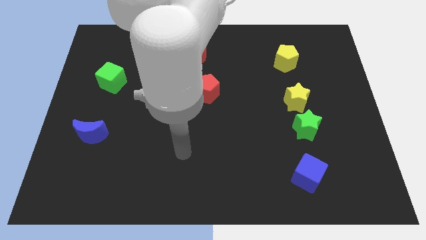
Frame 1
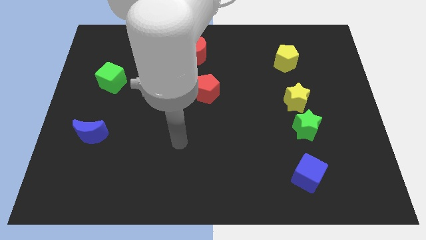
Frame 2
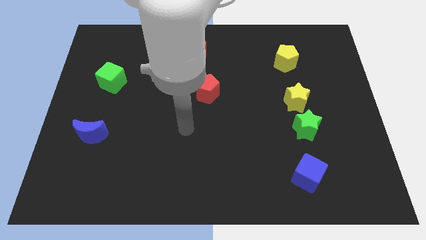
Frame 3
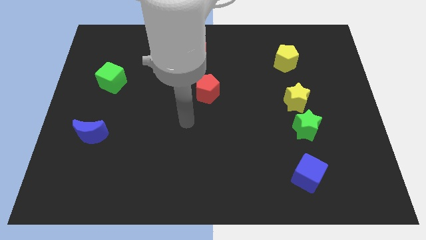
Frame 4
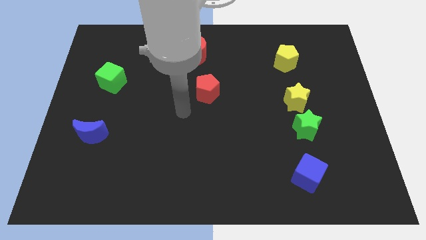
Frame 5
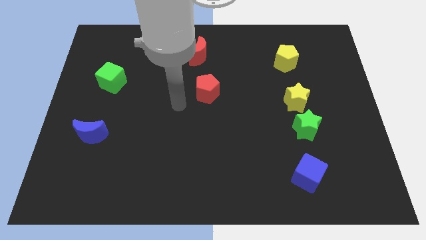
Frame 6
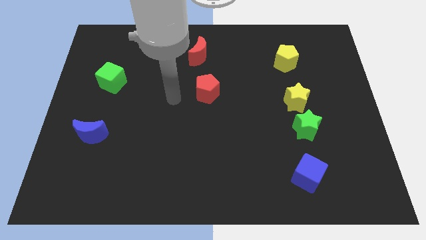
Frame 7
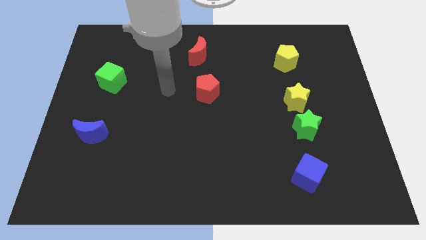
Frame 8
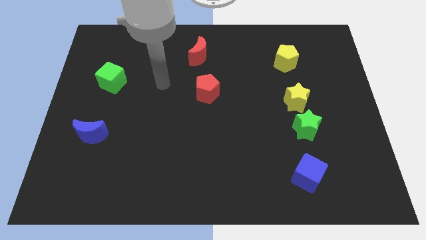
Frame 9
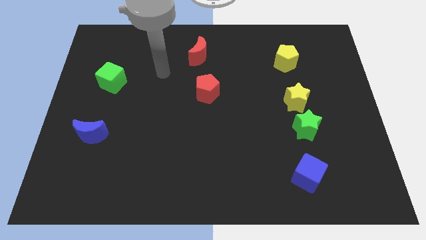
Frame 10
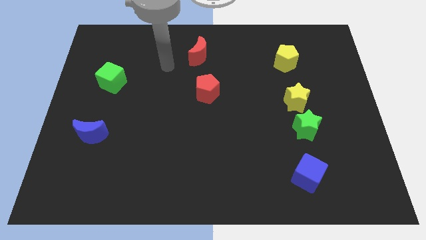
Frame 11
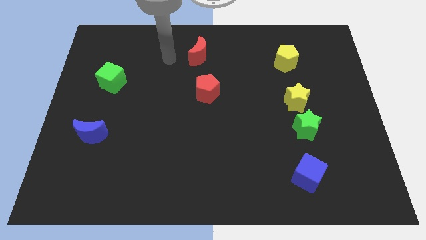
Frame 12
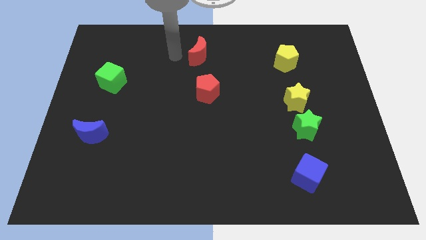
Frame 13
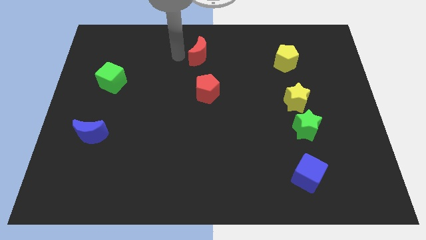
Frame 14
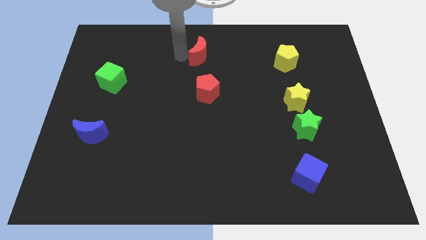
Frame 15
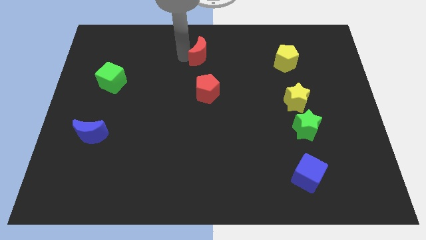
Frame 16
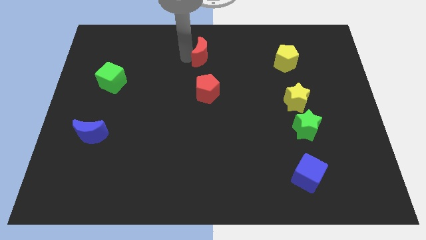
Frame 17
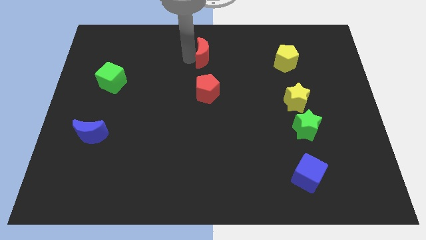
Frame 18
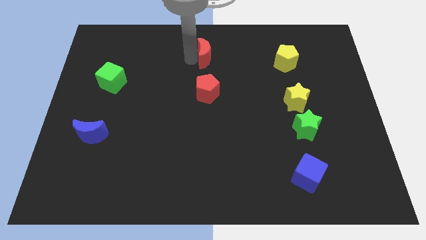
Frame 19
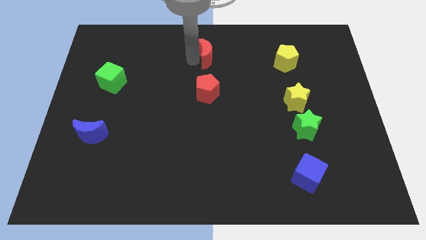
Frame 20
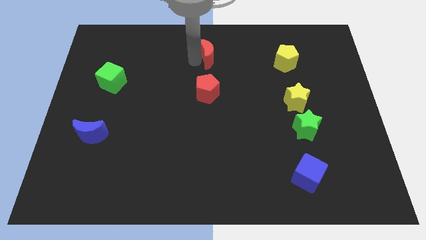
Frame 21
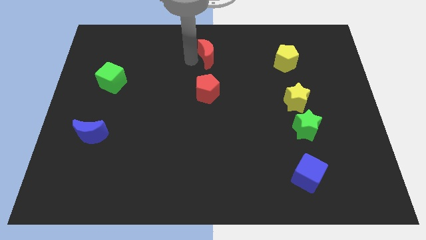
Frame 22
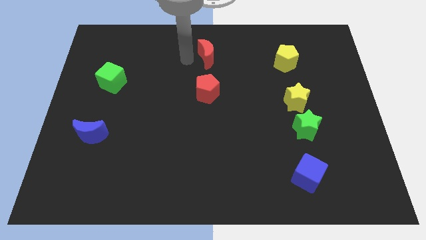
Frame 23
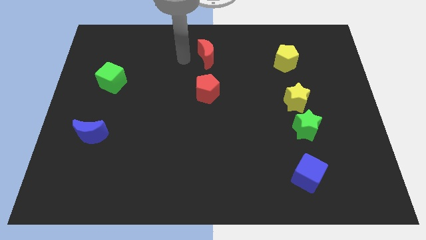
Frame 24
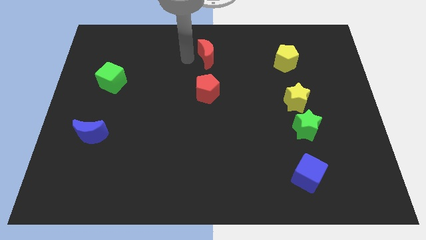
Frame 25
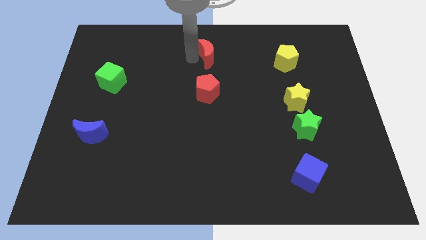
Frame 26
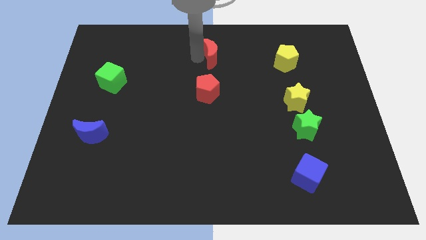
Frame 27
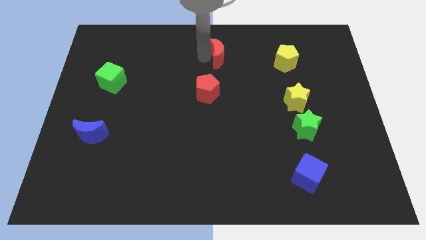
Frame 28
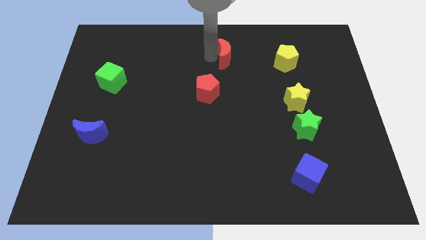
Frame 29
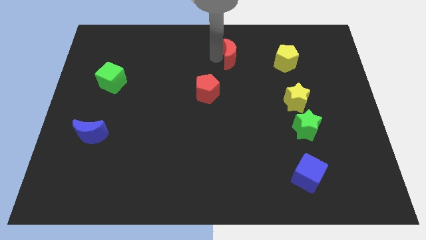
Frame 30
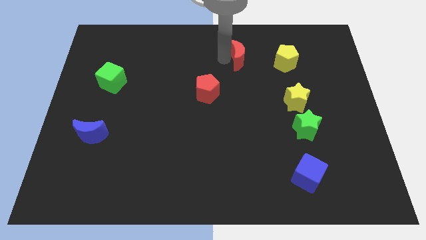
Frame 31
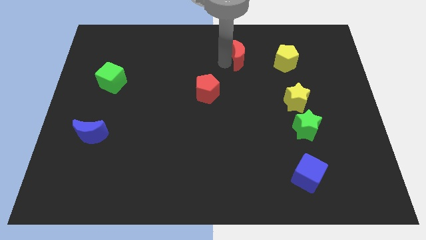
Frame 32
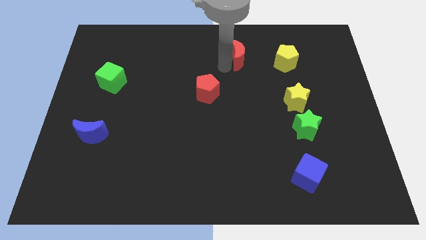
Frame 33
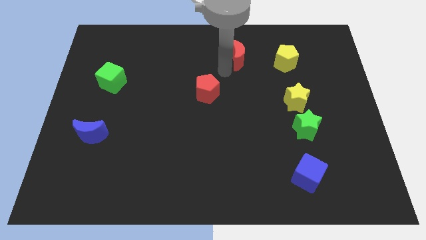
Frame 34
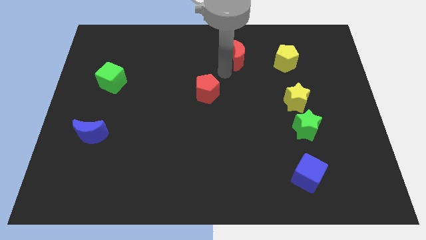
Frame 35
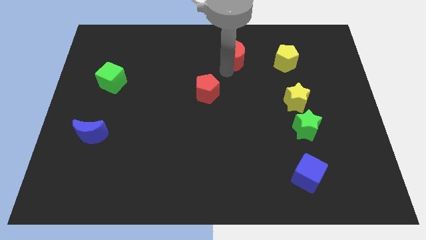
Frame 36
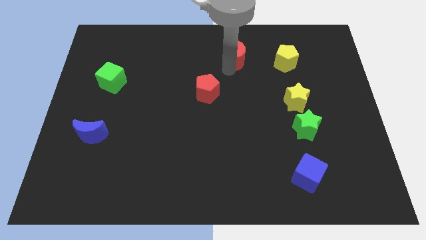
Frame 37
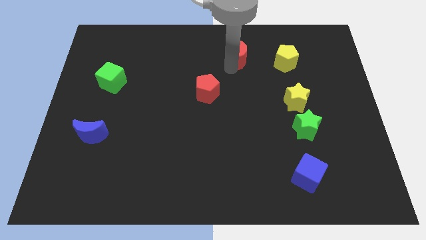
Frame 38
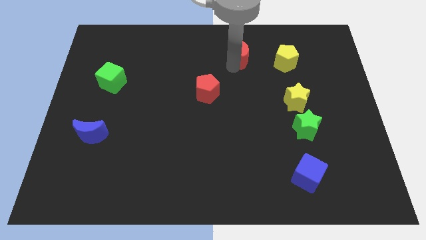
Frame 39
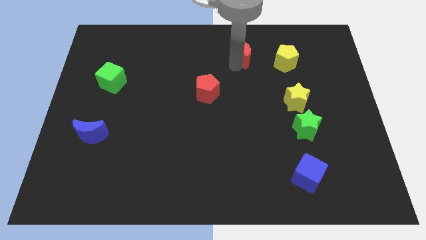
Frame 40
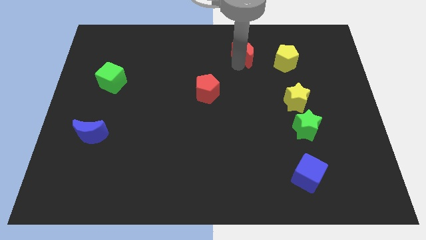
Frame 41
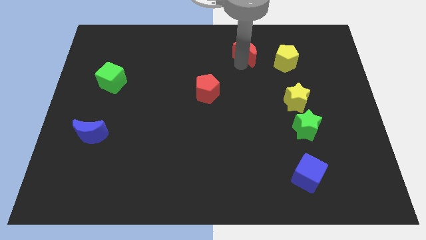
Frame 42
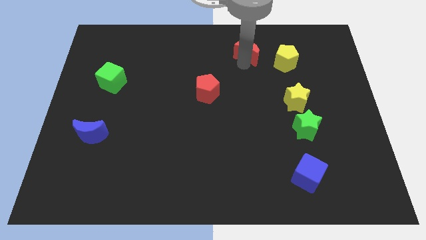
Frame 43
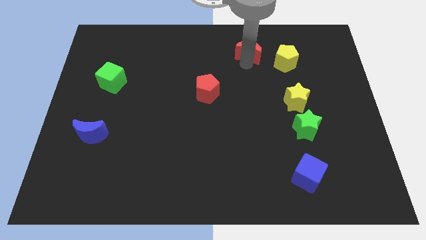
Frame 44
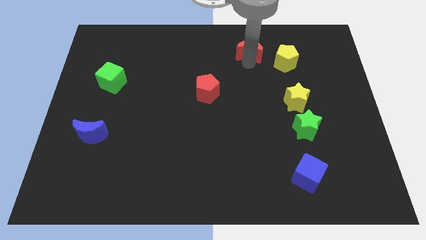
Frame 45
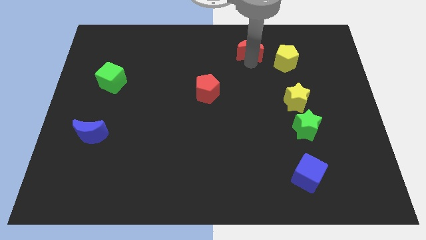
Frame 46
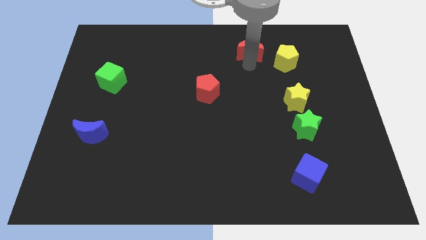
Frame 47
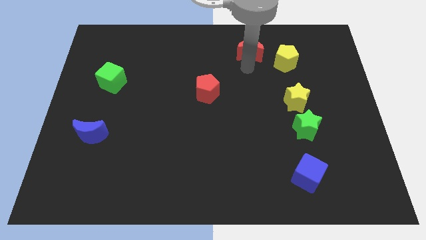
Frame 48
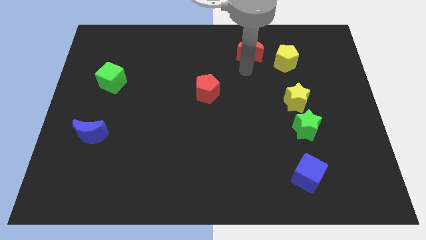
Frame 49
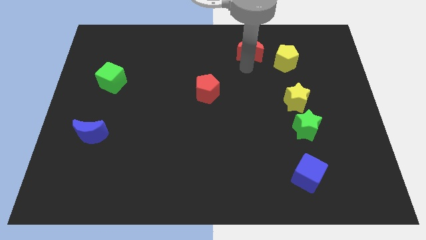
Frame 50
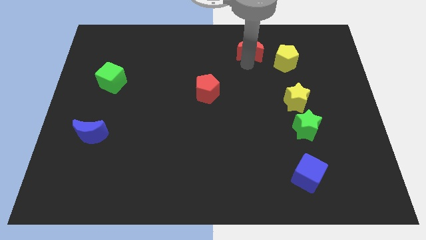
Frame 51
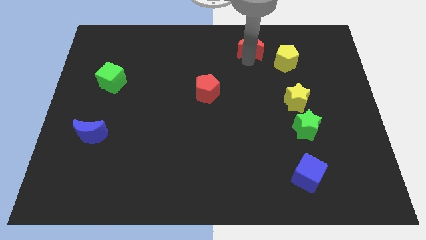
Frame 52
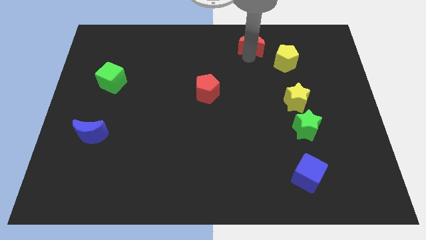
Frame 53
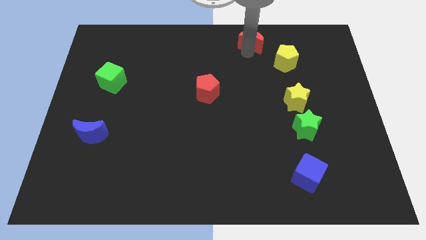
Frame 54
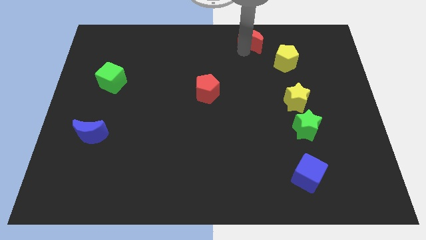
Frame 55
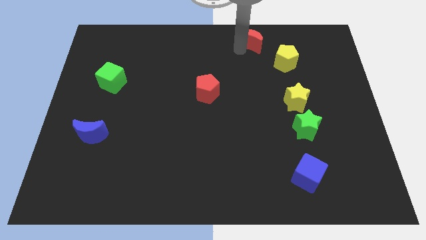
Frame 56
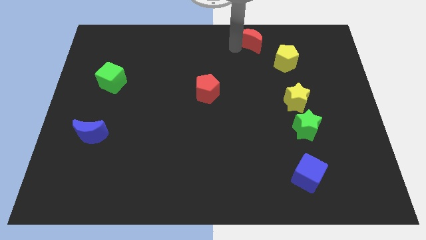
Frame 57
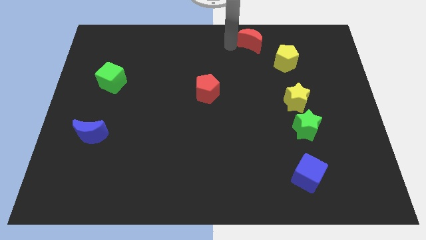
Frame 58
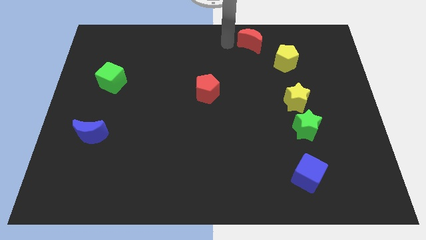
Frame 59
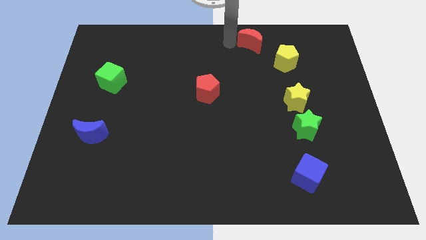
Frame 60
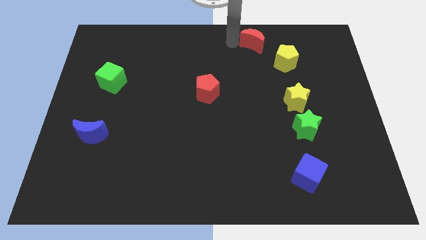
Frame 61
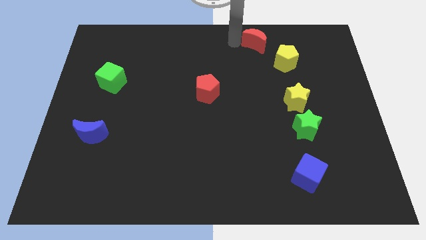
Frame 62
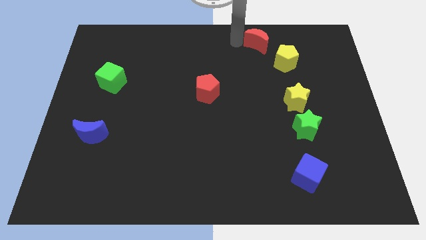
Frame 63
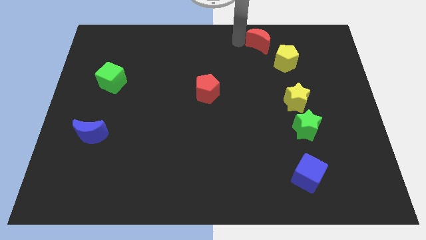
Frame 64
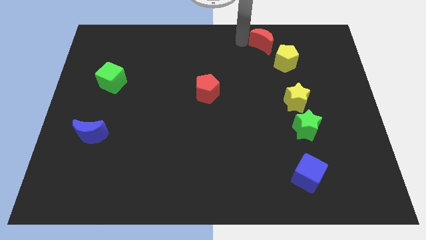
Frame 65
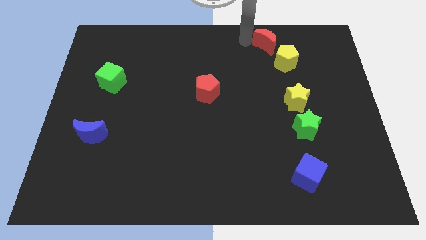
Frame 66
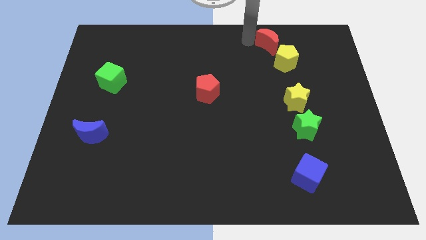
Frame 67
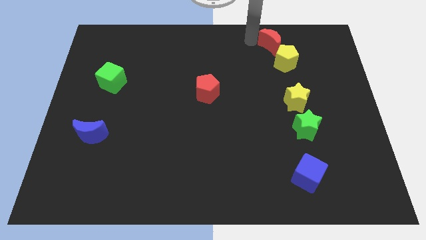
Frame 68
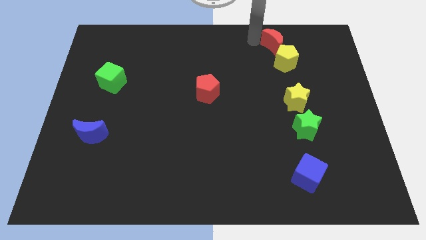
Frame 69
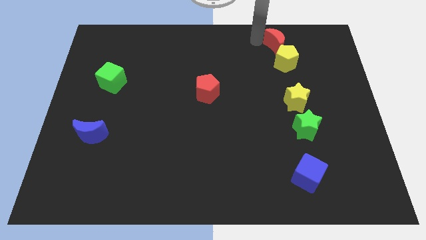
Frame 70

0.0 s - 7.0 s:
slide the red moon right

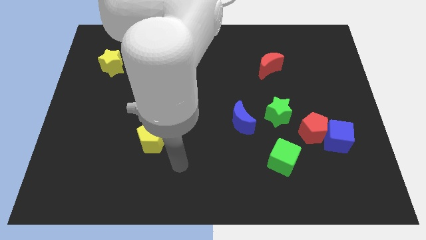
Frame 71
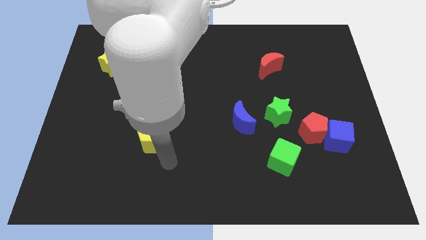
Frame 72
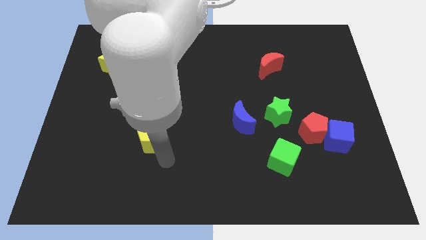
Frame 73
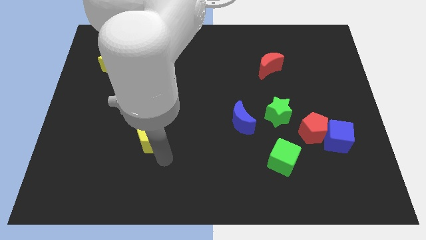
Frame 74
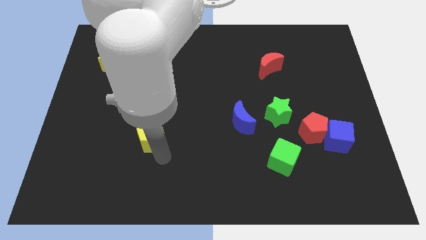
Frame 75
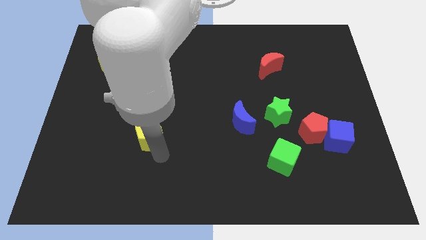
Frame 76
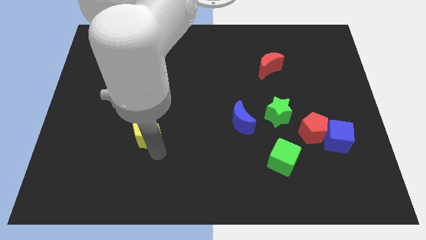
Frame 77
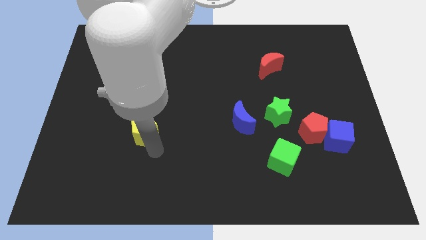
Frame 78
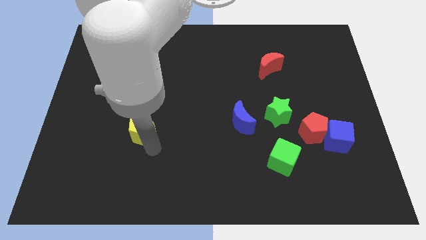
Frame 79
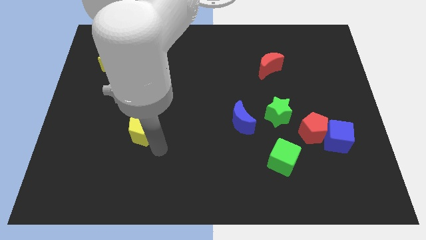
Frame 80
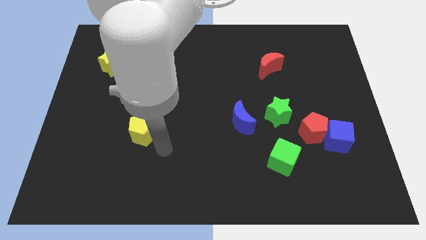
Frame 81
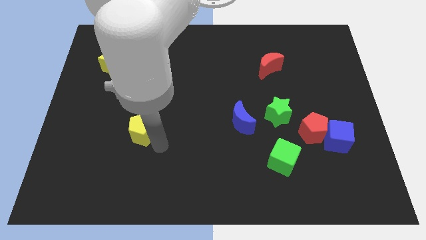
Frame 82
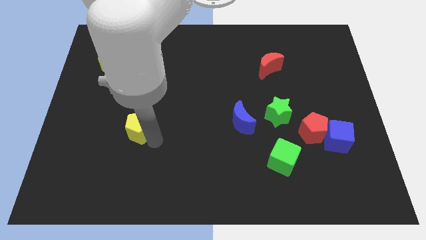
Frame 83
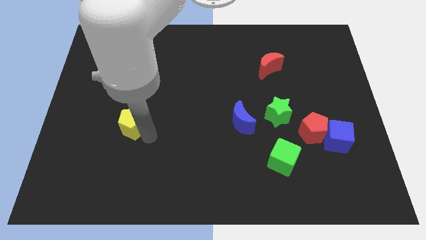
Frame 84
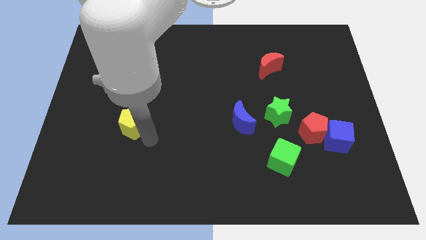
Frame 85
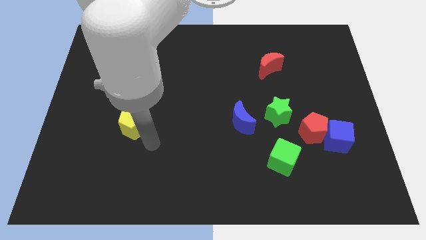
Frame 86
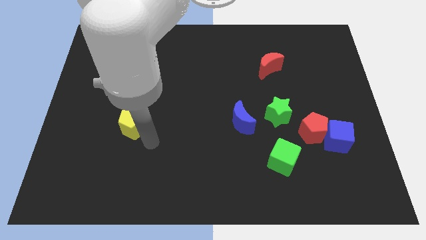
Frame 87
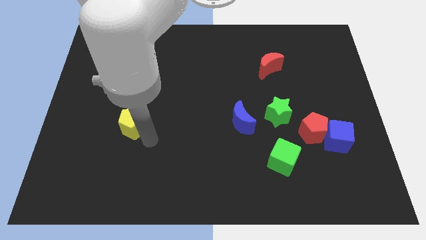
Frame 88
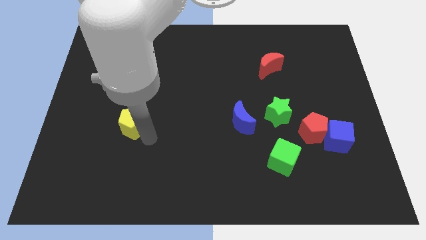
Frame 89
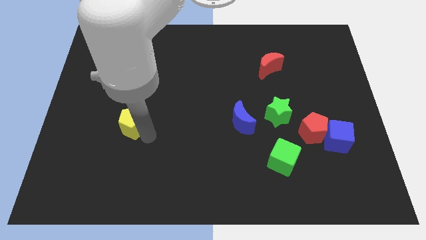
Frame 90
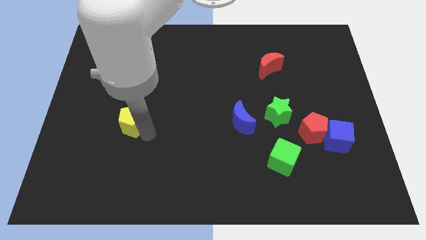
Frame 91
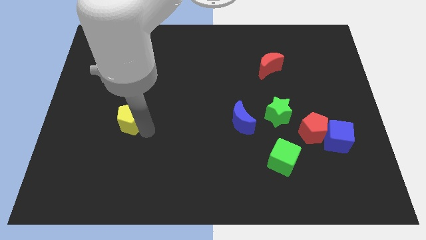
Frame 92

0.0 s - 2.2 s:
slightly move the yellow pentagon up and then to the left
